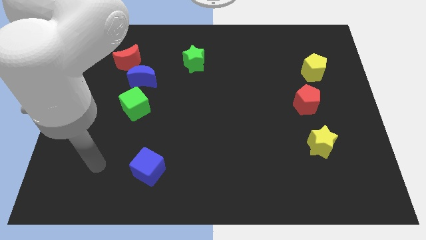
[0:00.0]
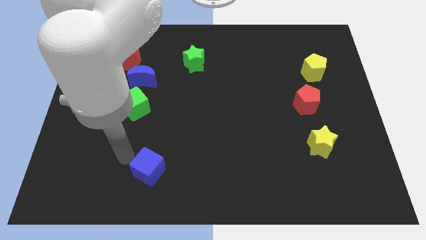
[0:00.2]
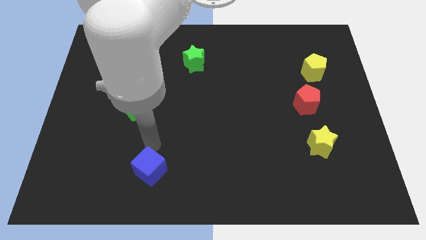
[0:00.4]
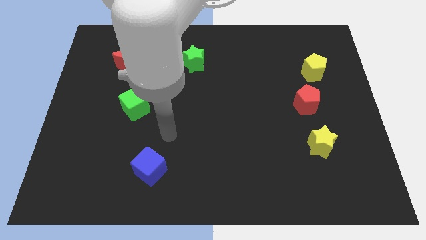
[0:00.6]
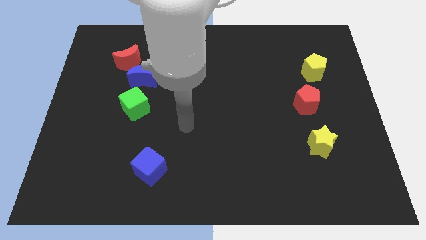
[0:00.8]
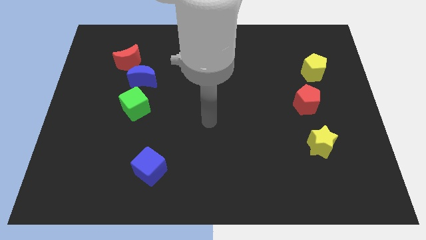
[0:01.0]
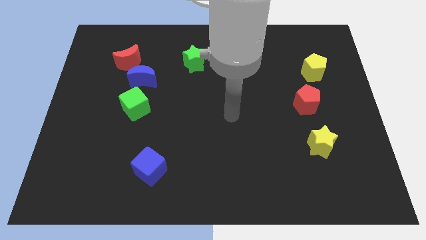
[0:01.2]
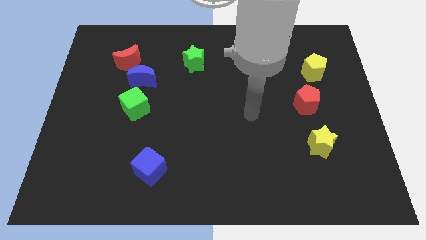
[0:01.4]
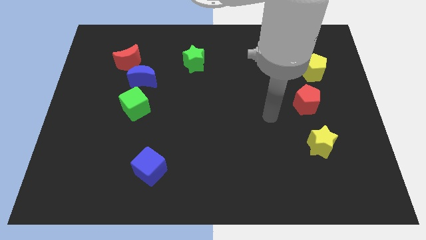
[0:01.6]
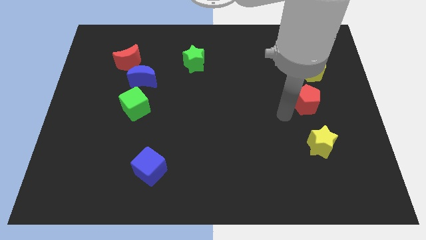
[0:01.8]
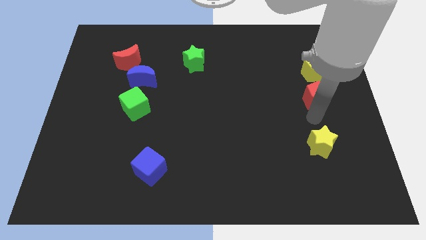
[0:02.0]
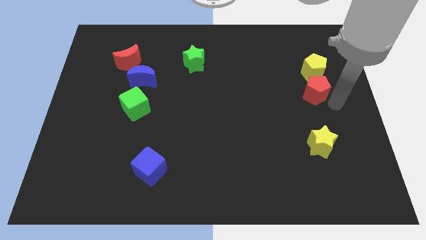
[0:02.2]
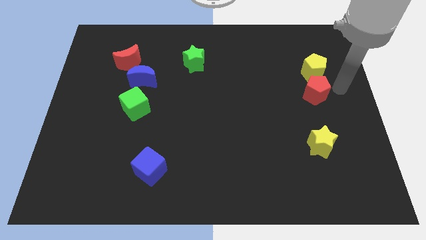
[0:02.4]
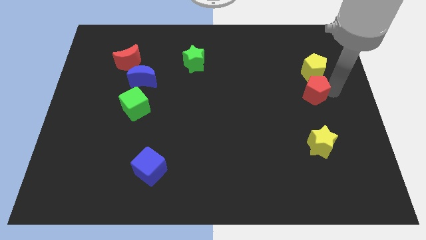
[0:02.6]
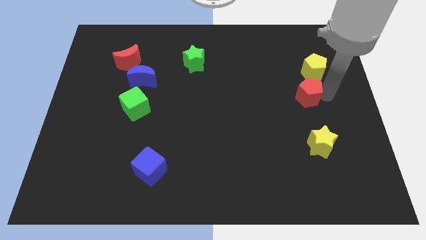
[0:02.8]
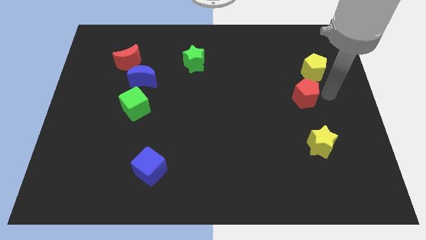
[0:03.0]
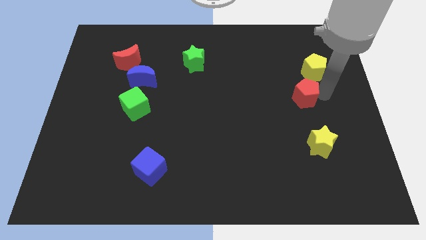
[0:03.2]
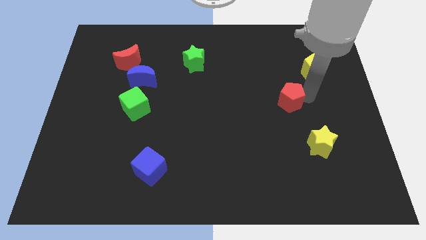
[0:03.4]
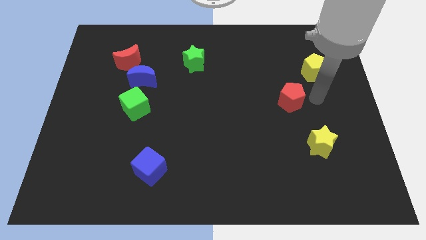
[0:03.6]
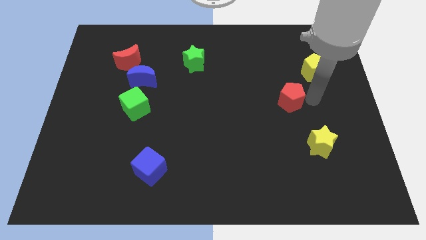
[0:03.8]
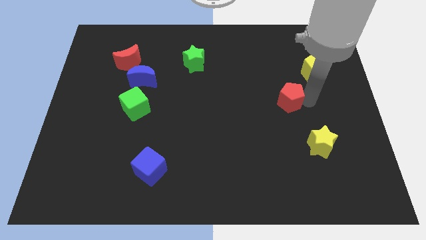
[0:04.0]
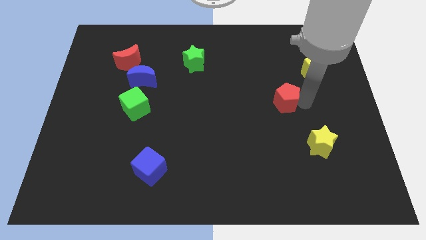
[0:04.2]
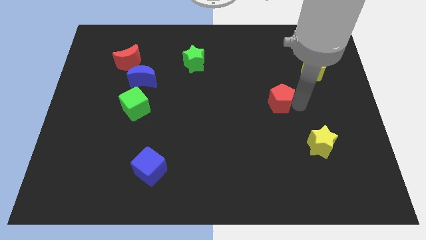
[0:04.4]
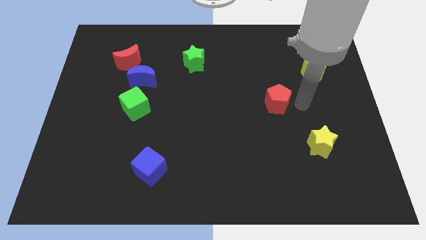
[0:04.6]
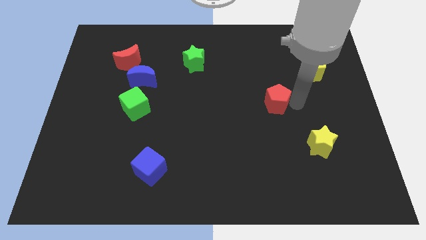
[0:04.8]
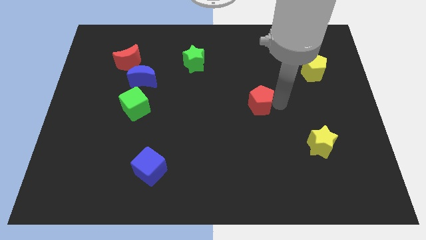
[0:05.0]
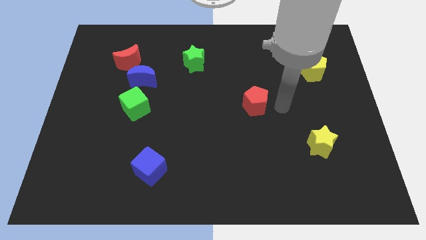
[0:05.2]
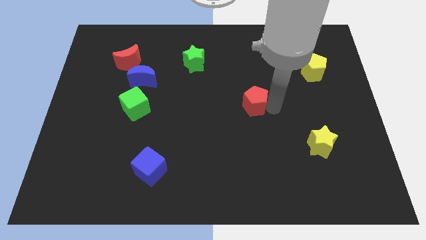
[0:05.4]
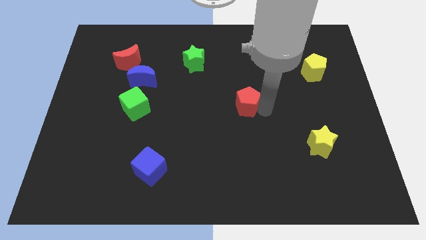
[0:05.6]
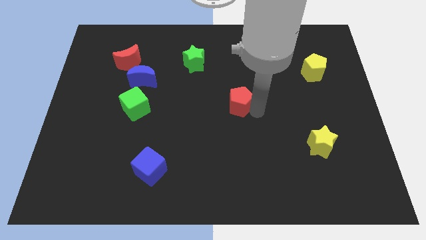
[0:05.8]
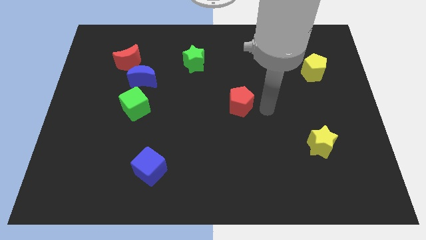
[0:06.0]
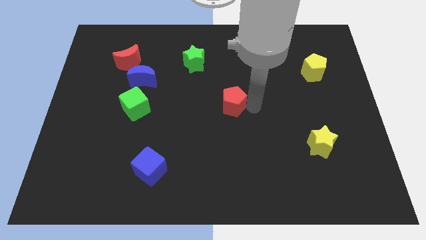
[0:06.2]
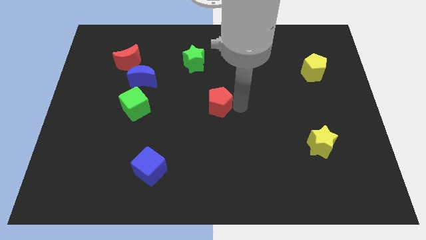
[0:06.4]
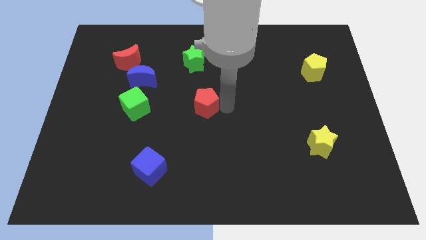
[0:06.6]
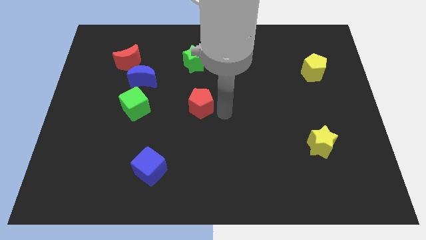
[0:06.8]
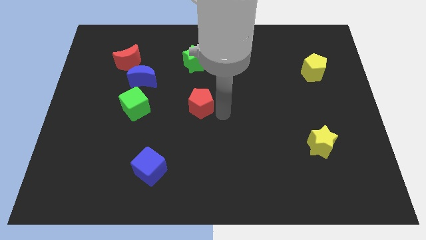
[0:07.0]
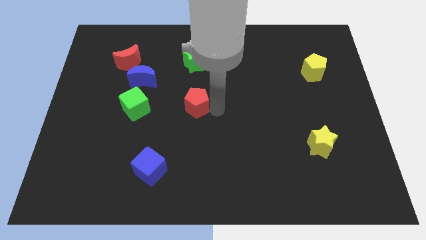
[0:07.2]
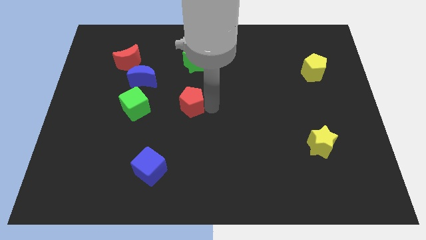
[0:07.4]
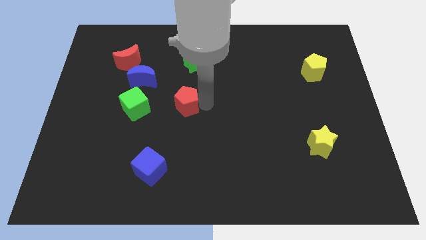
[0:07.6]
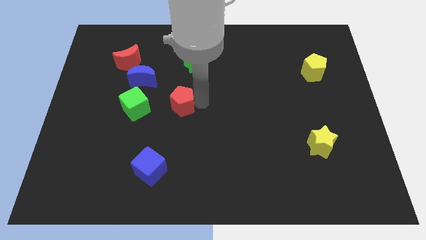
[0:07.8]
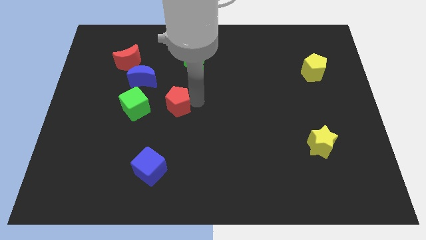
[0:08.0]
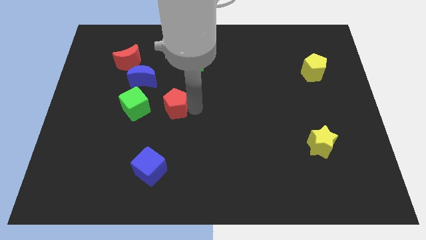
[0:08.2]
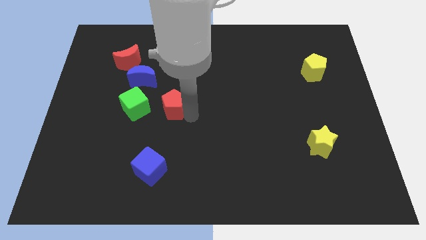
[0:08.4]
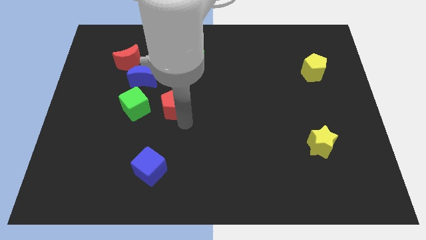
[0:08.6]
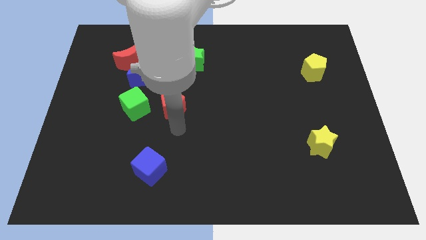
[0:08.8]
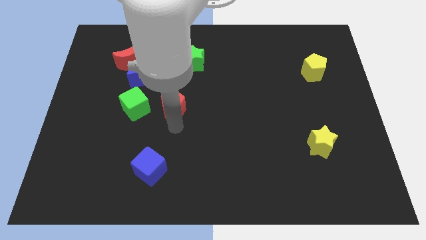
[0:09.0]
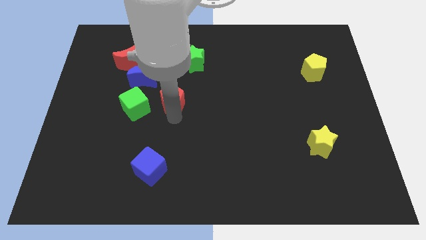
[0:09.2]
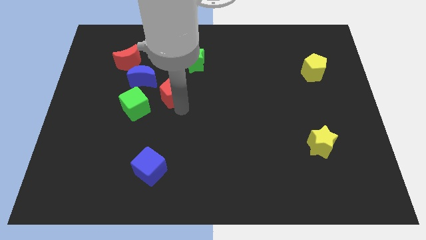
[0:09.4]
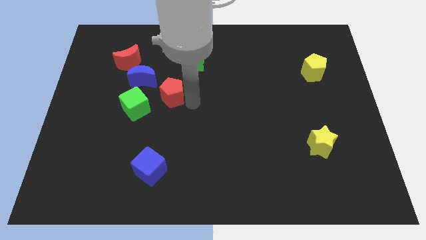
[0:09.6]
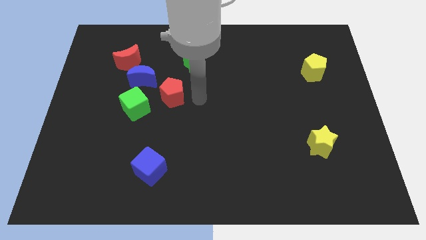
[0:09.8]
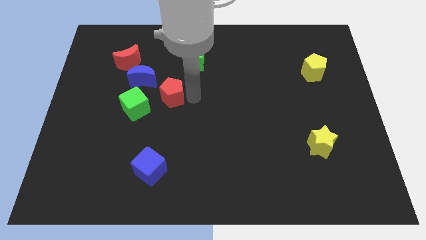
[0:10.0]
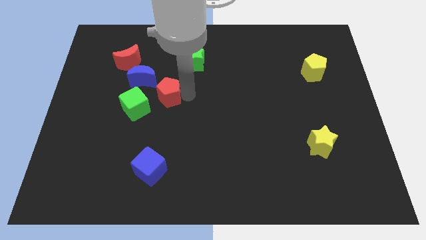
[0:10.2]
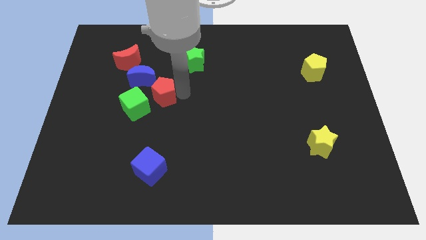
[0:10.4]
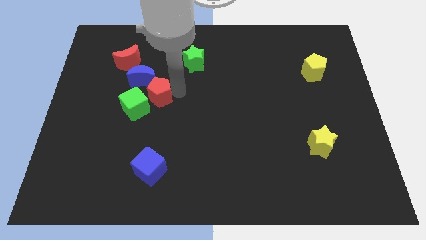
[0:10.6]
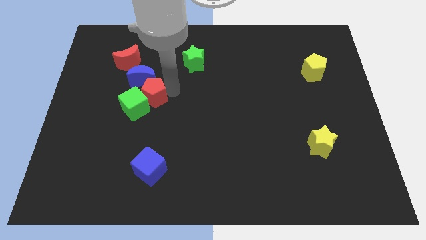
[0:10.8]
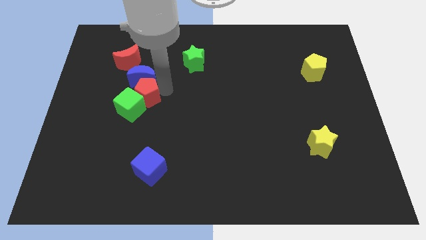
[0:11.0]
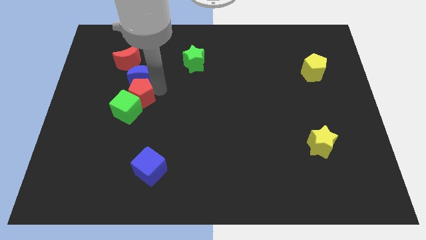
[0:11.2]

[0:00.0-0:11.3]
put the red pentagon below the red moon
